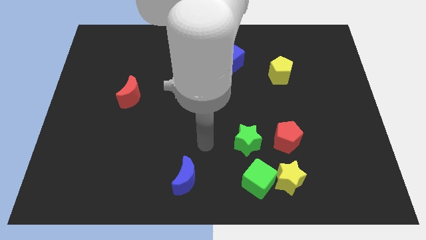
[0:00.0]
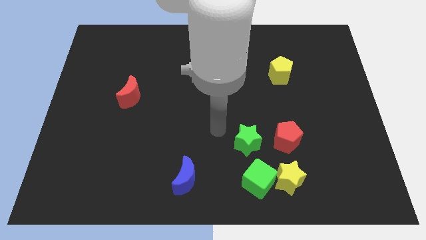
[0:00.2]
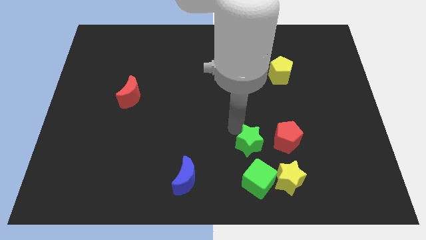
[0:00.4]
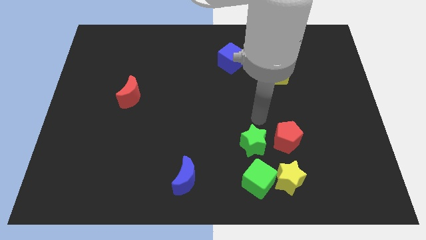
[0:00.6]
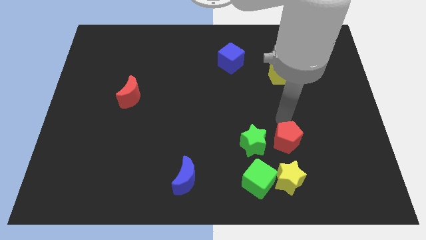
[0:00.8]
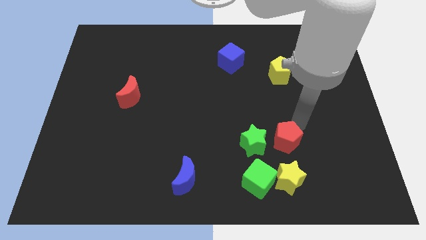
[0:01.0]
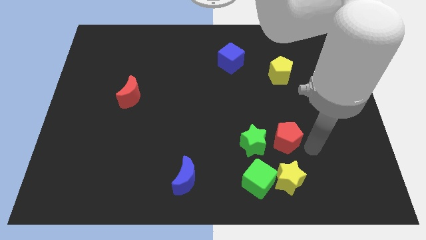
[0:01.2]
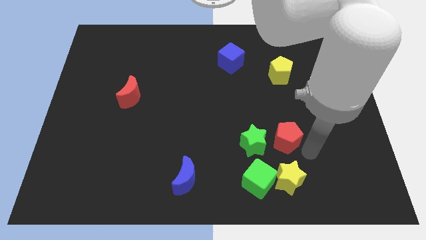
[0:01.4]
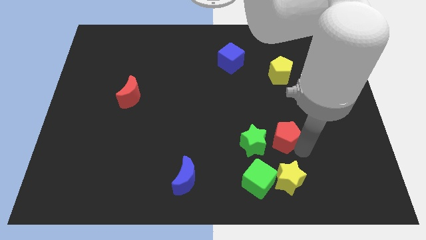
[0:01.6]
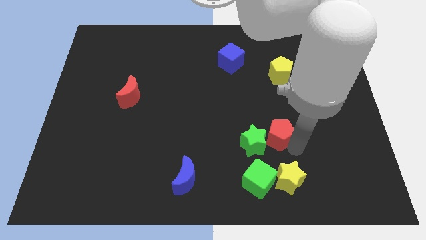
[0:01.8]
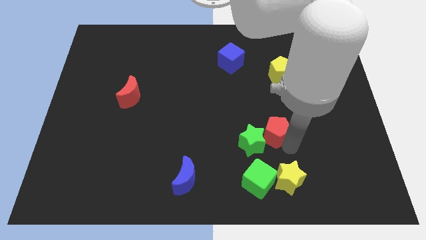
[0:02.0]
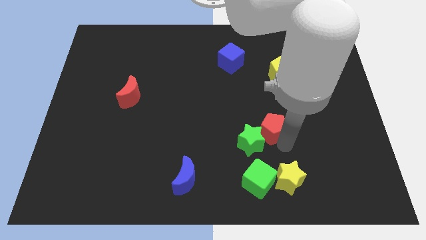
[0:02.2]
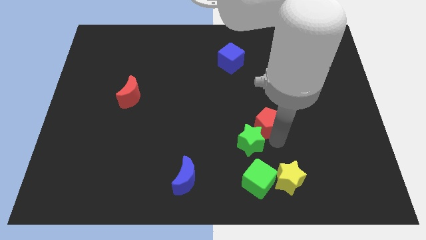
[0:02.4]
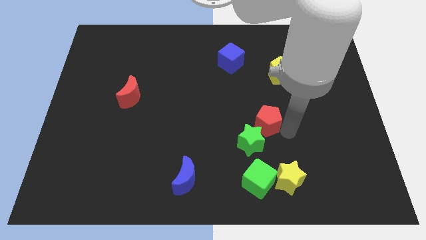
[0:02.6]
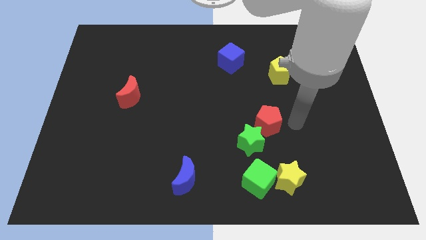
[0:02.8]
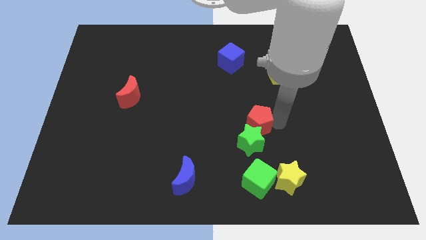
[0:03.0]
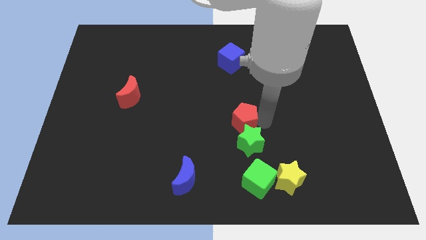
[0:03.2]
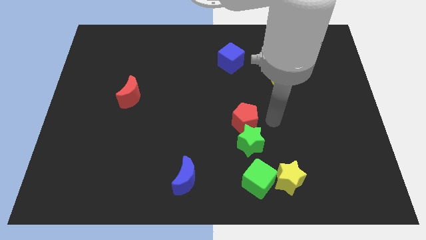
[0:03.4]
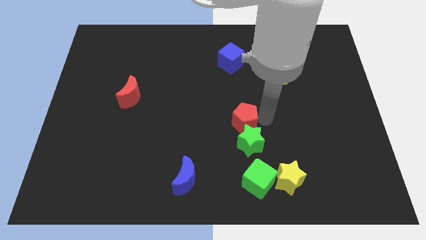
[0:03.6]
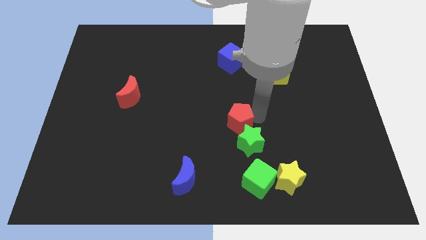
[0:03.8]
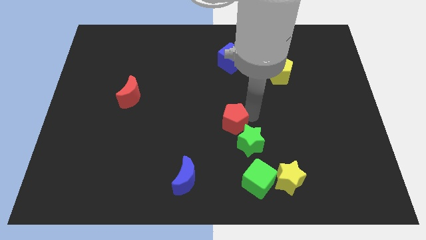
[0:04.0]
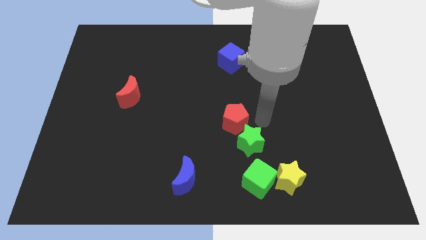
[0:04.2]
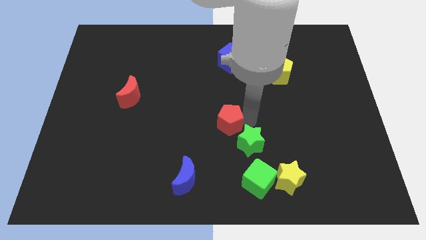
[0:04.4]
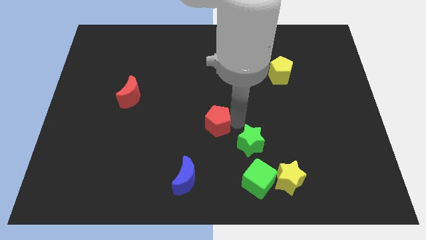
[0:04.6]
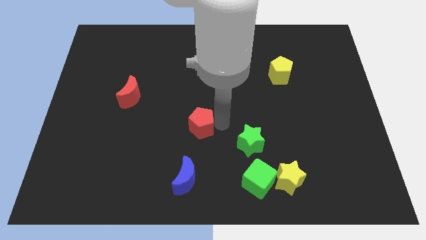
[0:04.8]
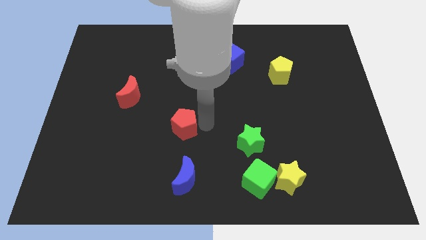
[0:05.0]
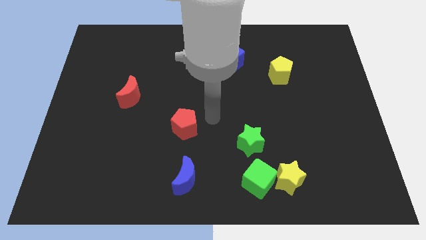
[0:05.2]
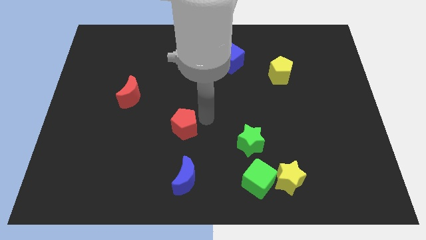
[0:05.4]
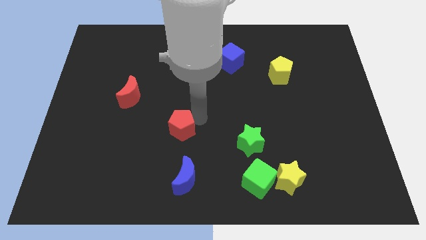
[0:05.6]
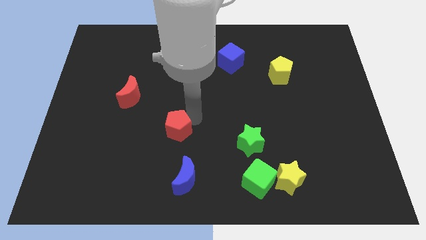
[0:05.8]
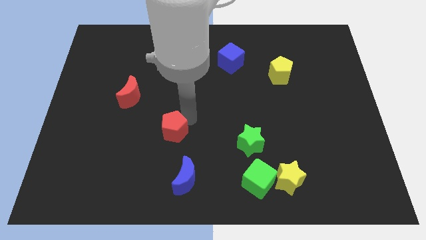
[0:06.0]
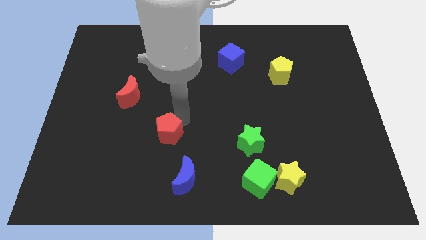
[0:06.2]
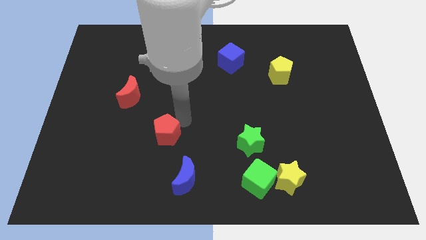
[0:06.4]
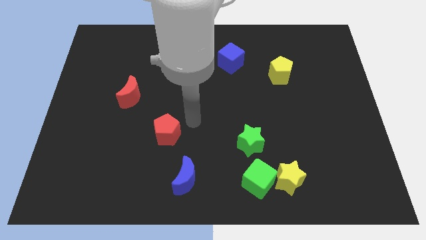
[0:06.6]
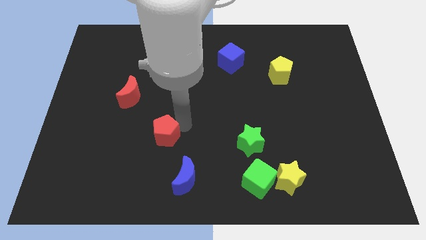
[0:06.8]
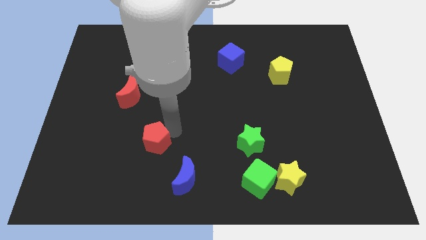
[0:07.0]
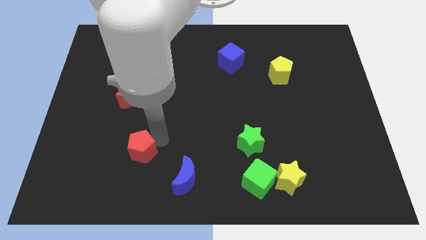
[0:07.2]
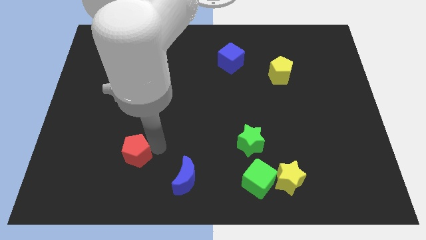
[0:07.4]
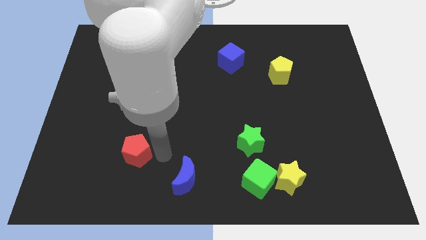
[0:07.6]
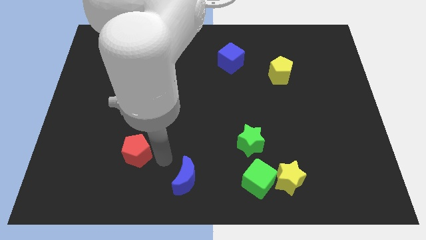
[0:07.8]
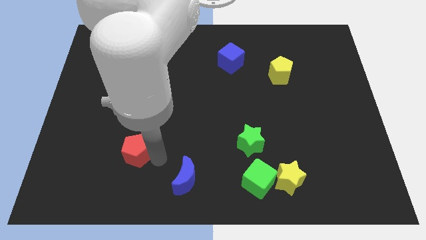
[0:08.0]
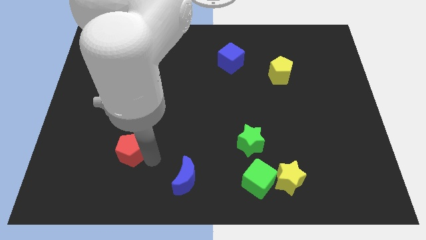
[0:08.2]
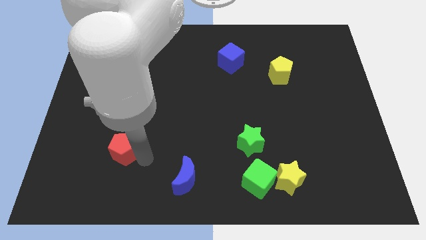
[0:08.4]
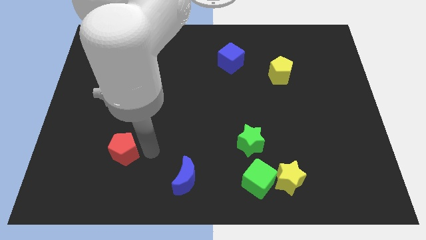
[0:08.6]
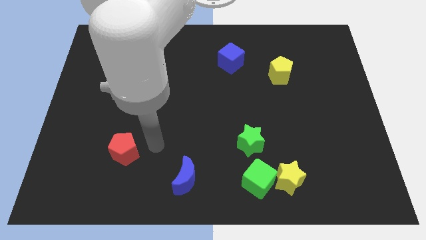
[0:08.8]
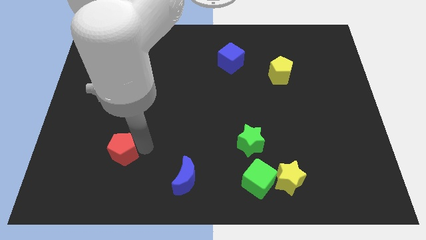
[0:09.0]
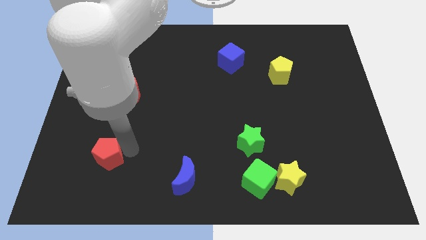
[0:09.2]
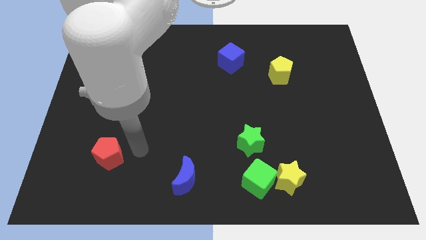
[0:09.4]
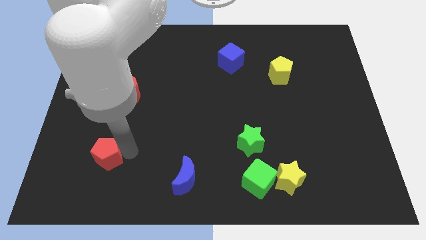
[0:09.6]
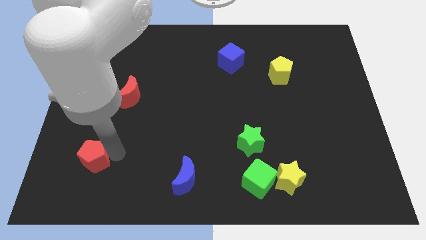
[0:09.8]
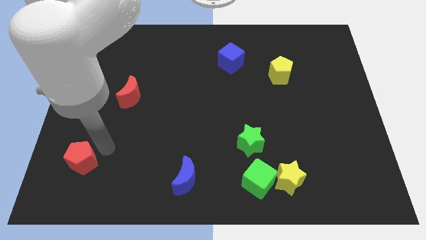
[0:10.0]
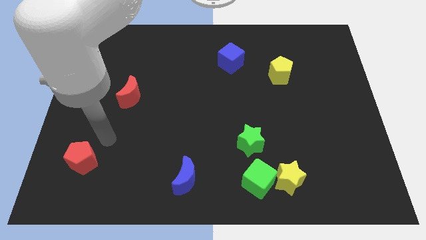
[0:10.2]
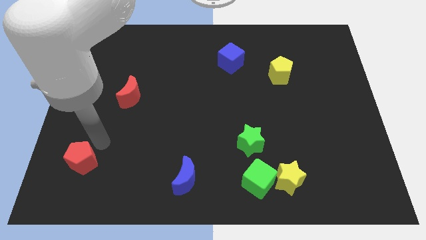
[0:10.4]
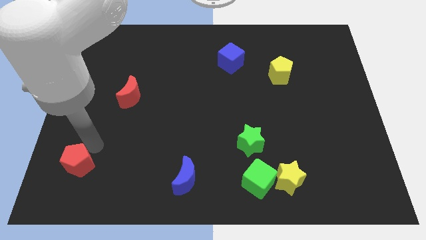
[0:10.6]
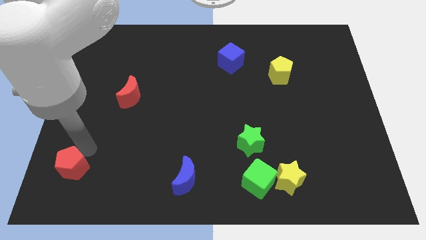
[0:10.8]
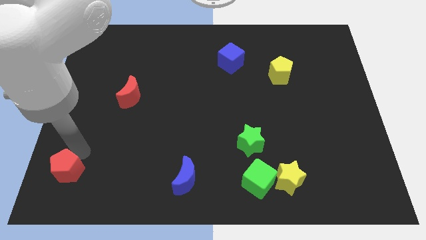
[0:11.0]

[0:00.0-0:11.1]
put the red pentagon to the bottom left

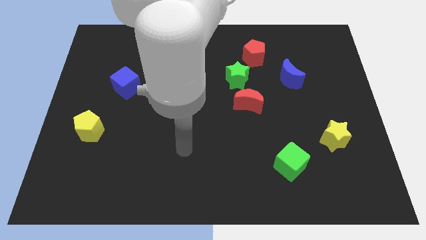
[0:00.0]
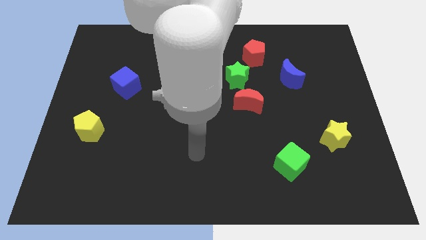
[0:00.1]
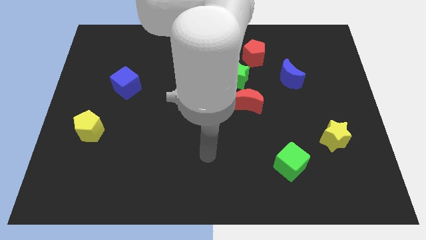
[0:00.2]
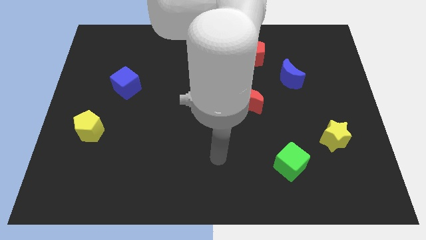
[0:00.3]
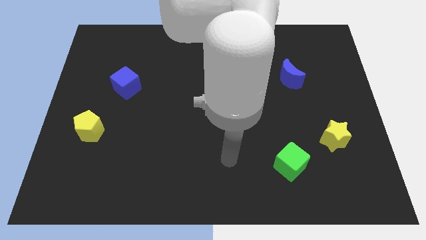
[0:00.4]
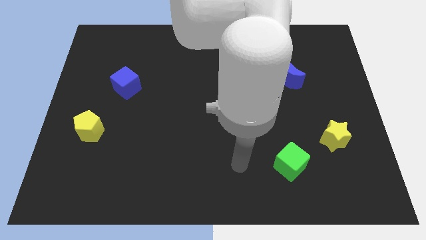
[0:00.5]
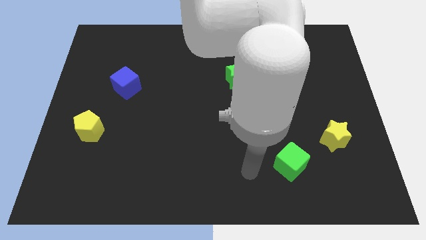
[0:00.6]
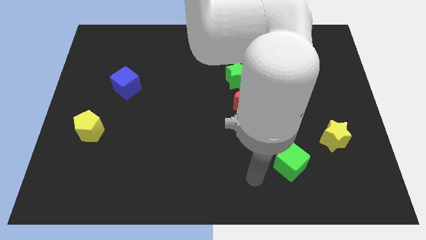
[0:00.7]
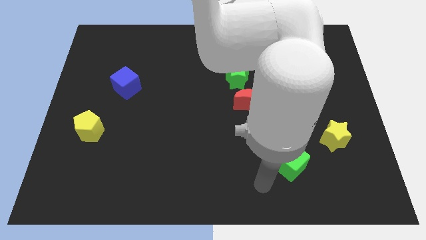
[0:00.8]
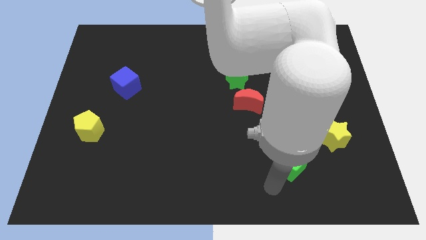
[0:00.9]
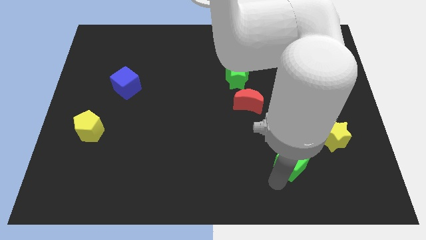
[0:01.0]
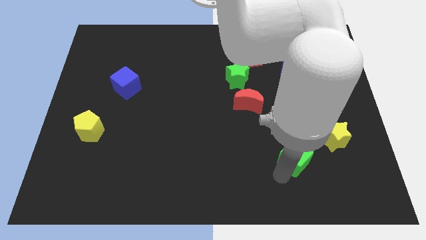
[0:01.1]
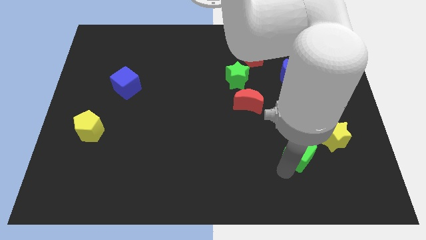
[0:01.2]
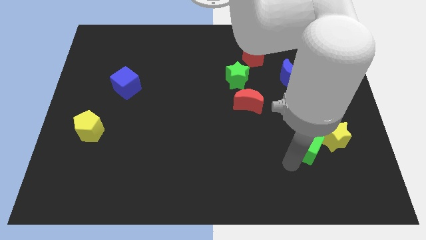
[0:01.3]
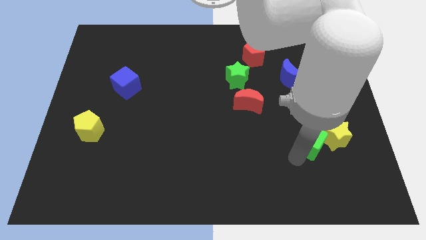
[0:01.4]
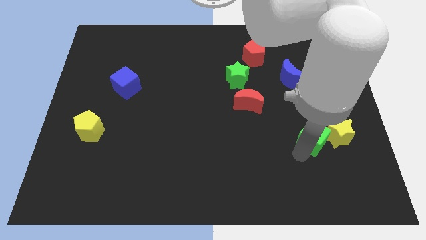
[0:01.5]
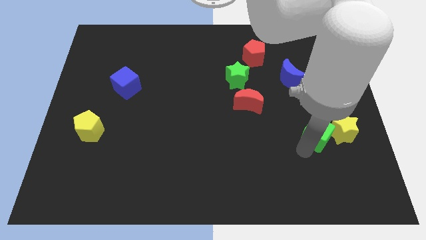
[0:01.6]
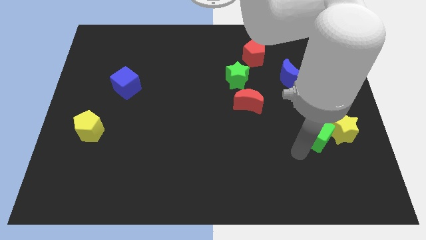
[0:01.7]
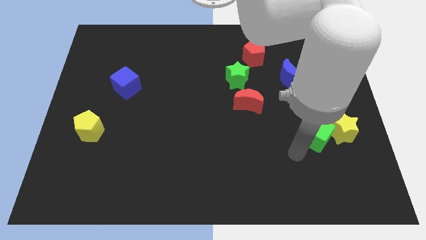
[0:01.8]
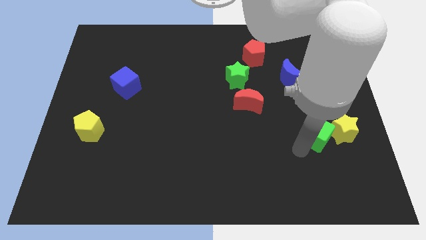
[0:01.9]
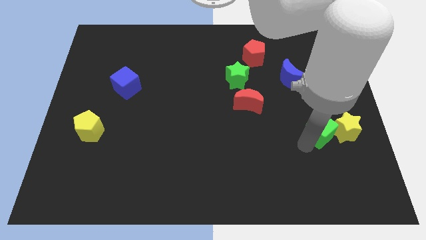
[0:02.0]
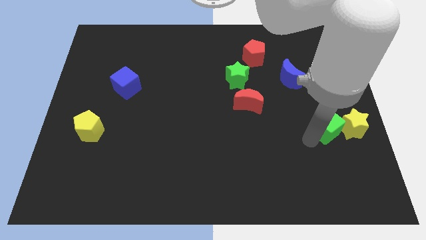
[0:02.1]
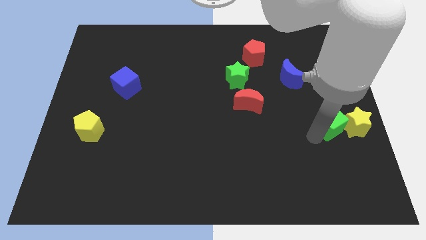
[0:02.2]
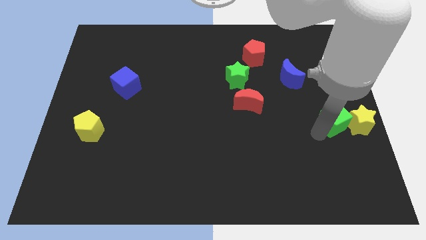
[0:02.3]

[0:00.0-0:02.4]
move the green cube to the right side of the board

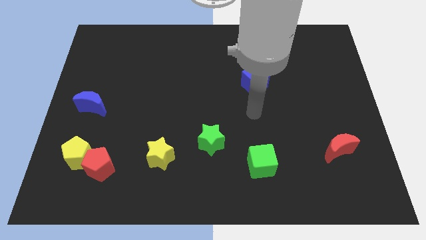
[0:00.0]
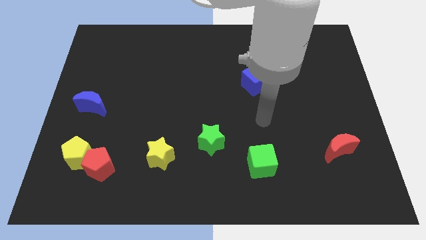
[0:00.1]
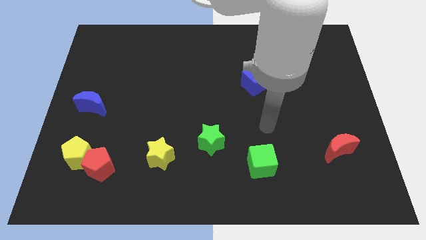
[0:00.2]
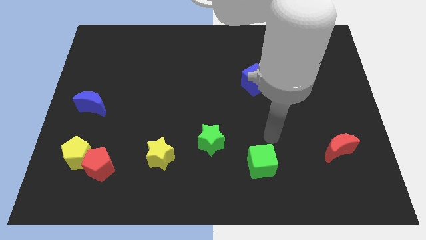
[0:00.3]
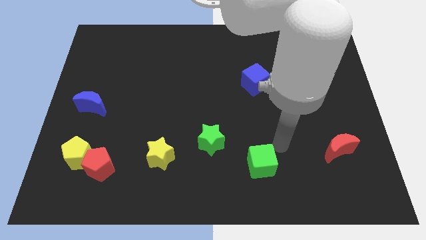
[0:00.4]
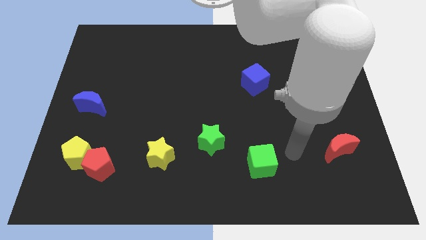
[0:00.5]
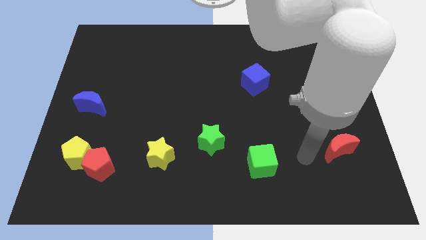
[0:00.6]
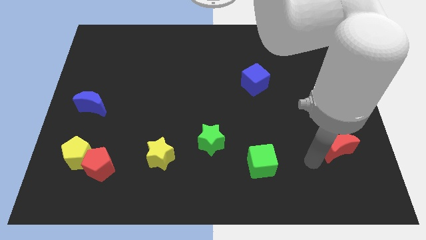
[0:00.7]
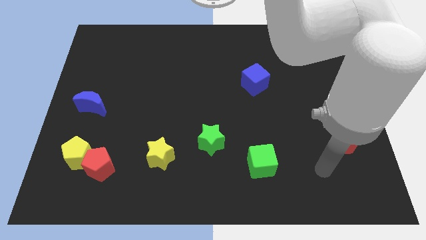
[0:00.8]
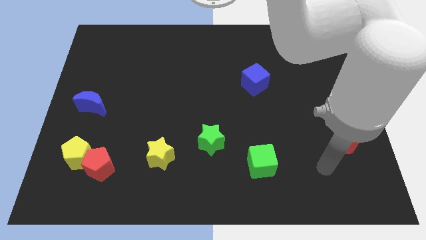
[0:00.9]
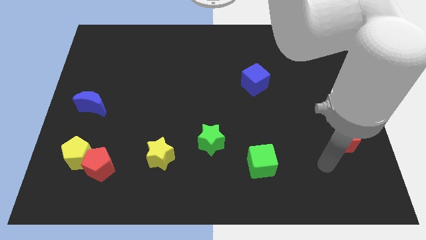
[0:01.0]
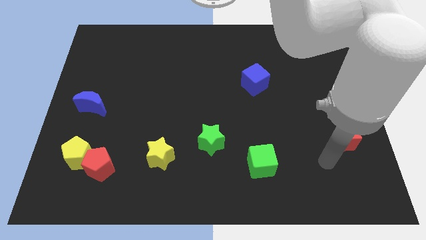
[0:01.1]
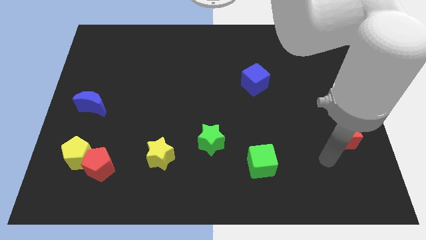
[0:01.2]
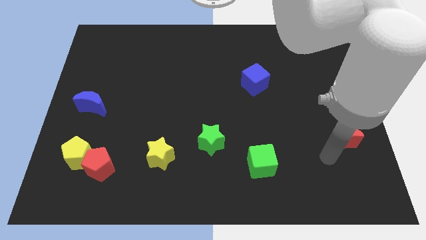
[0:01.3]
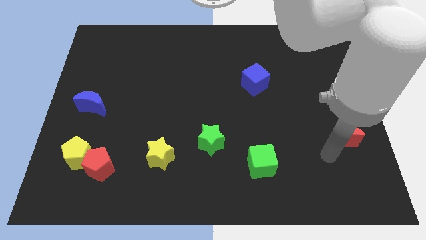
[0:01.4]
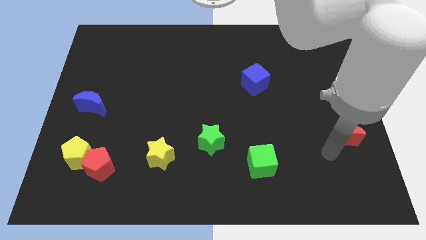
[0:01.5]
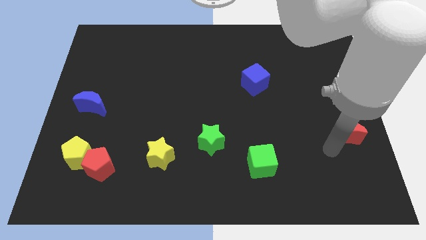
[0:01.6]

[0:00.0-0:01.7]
slide the red moon to the center right
